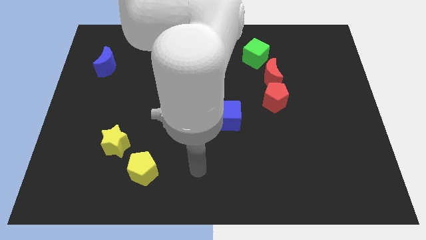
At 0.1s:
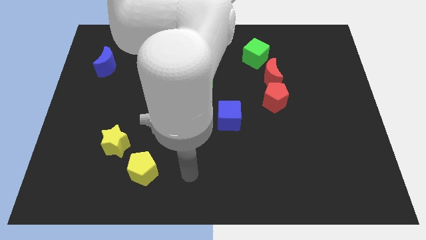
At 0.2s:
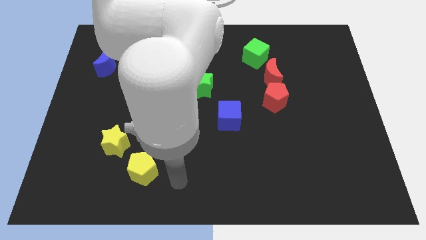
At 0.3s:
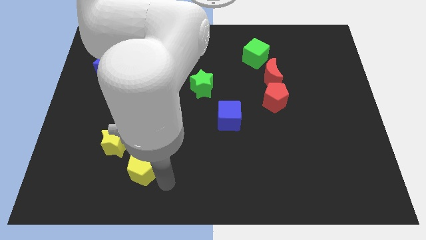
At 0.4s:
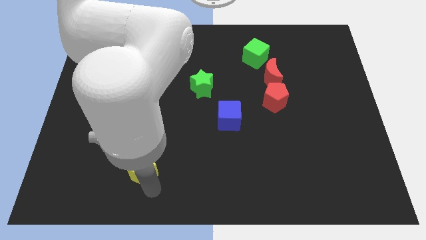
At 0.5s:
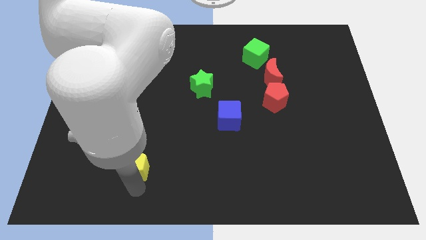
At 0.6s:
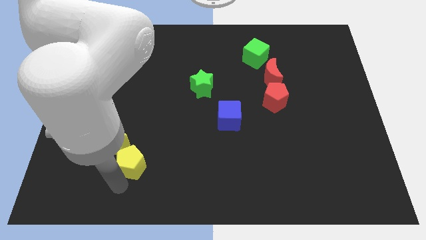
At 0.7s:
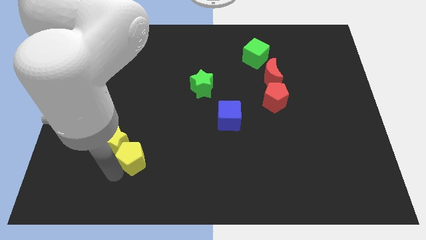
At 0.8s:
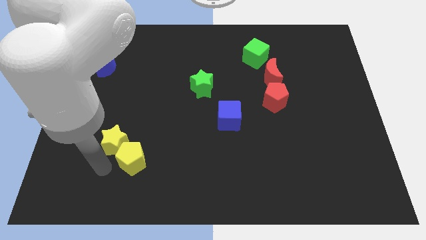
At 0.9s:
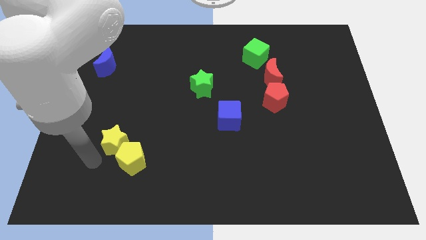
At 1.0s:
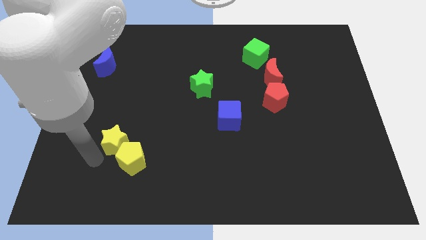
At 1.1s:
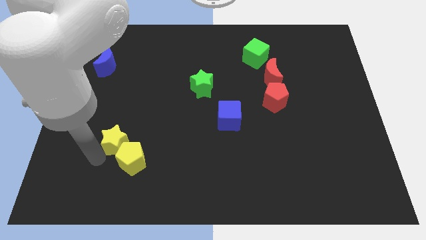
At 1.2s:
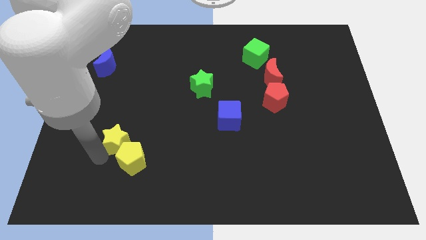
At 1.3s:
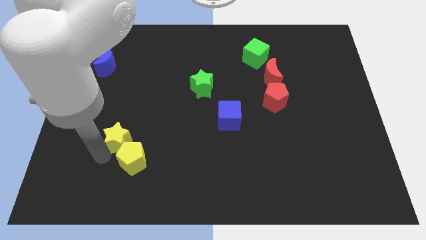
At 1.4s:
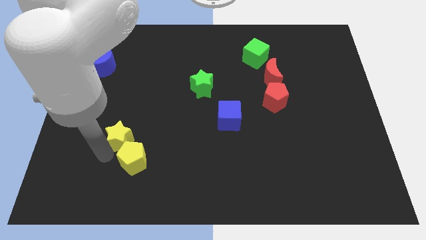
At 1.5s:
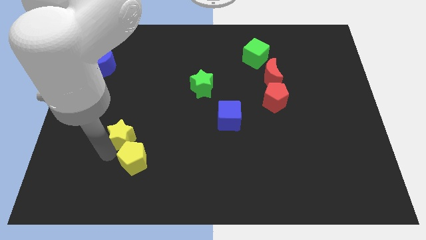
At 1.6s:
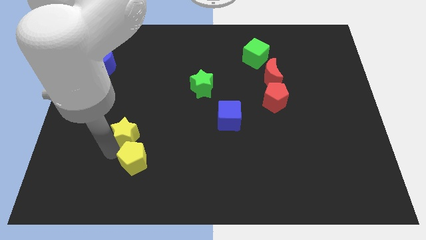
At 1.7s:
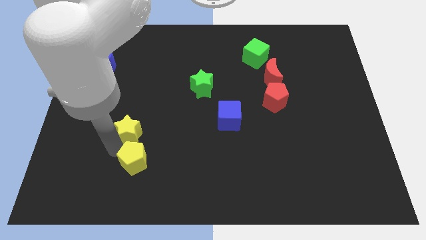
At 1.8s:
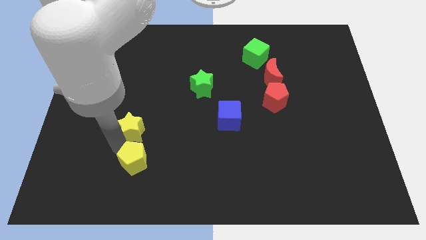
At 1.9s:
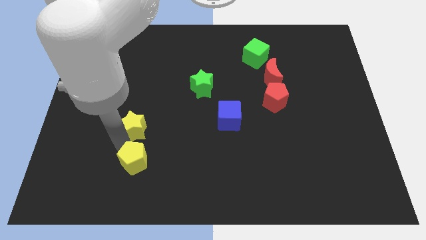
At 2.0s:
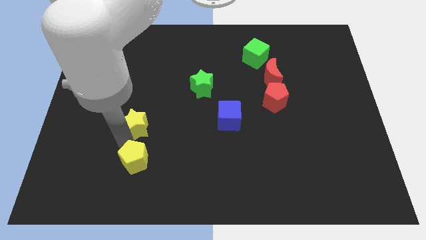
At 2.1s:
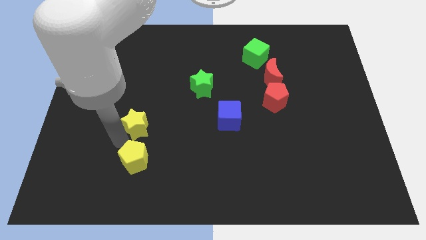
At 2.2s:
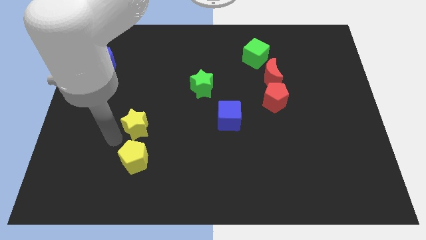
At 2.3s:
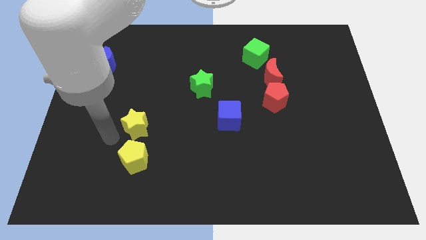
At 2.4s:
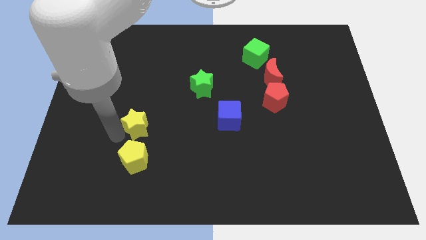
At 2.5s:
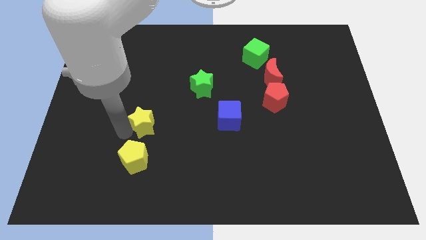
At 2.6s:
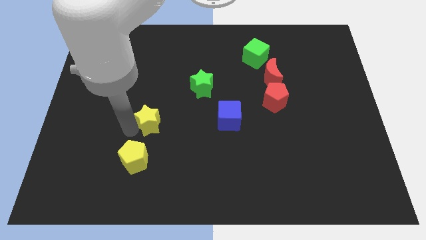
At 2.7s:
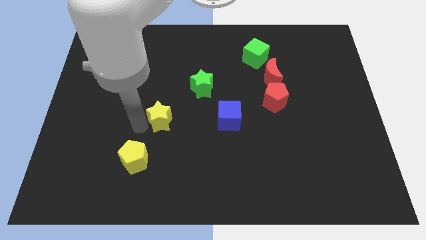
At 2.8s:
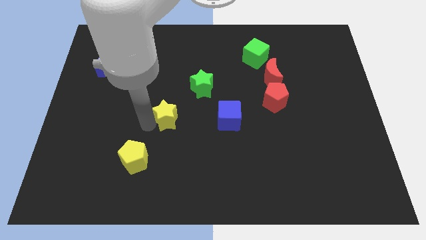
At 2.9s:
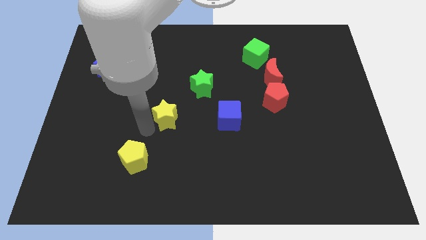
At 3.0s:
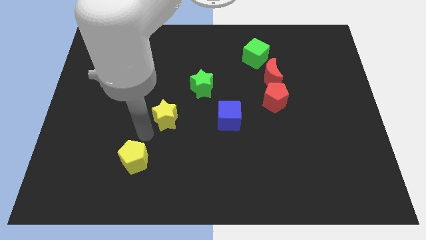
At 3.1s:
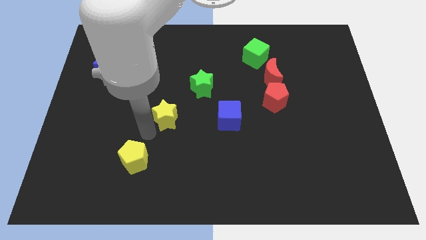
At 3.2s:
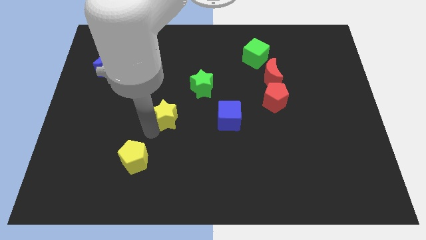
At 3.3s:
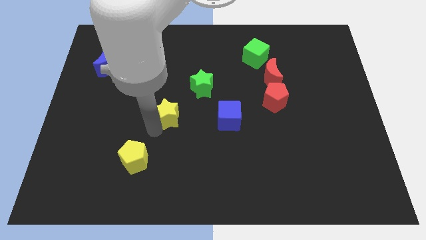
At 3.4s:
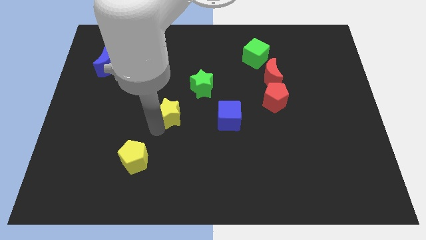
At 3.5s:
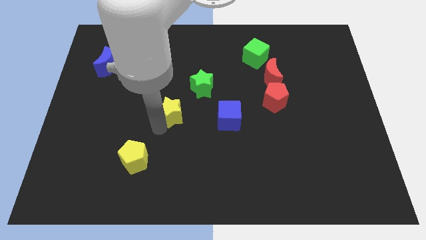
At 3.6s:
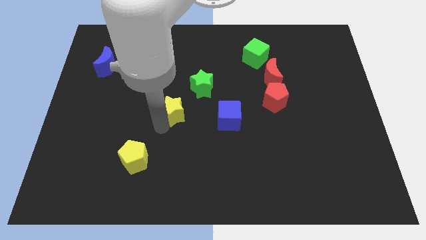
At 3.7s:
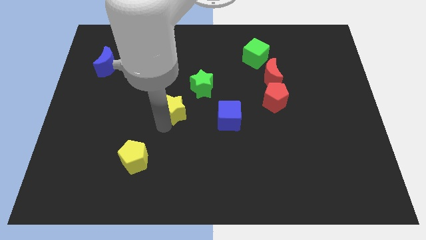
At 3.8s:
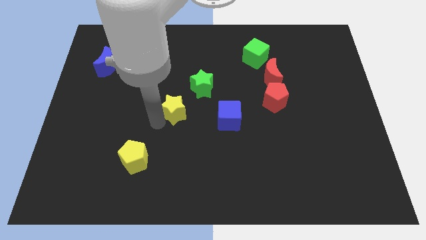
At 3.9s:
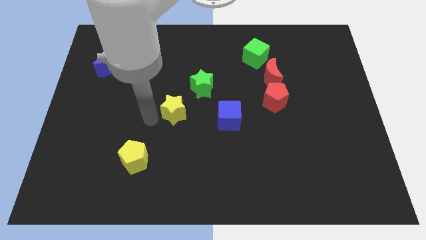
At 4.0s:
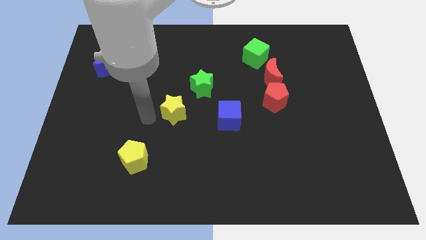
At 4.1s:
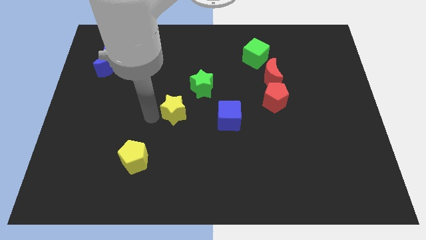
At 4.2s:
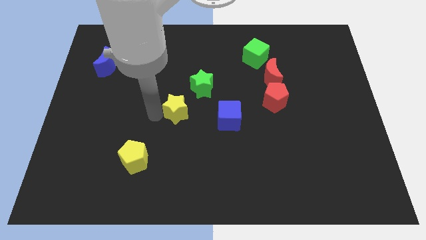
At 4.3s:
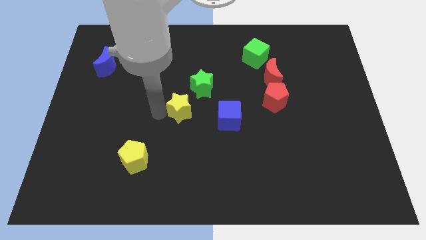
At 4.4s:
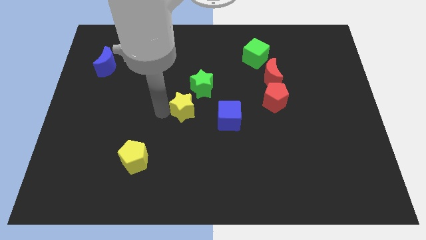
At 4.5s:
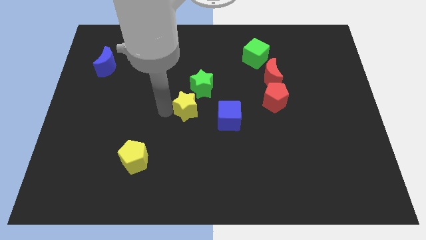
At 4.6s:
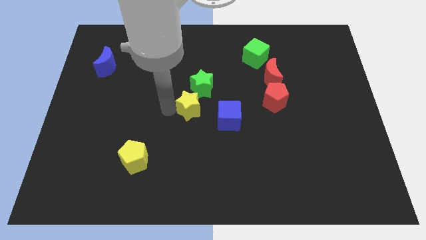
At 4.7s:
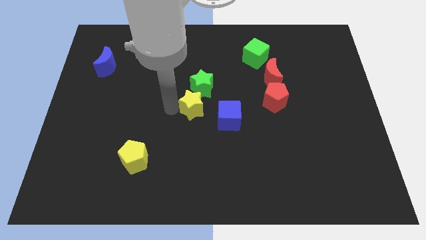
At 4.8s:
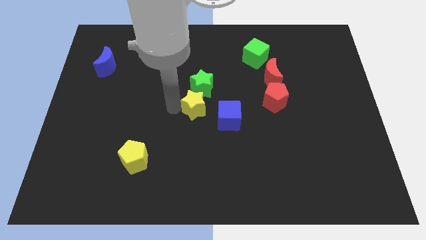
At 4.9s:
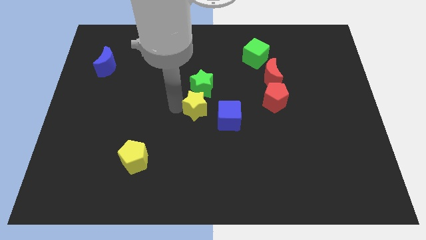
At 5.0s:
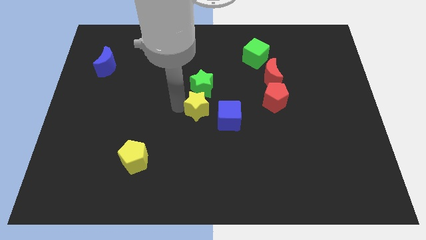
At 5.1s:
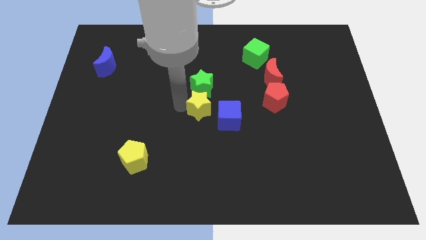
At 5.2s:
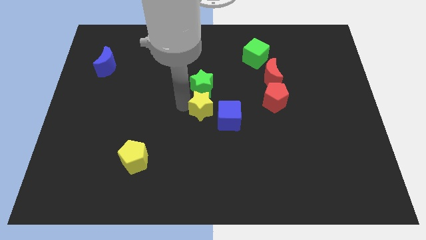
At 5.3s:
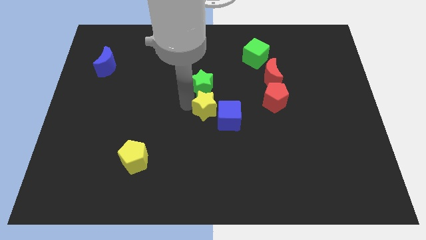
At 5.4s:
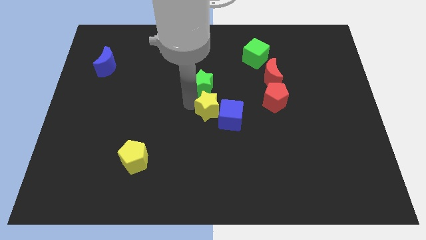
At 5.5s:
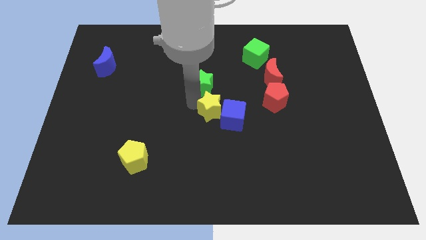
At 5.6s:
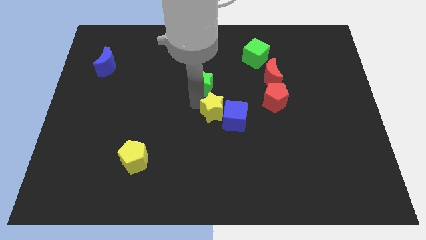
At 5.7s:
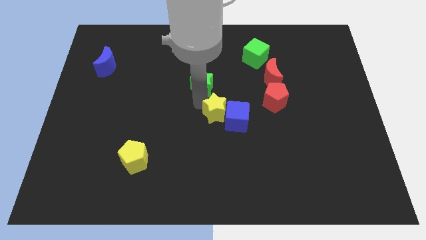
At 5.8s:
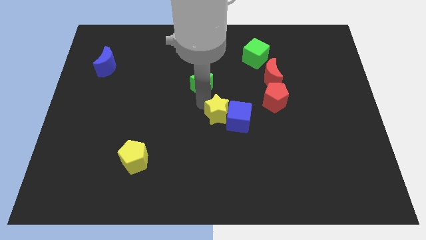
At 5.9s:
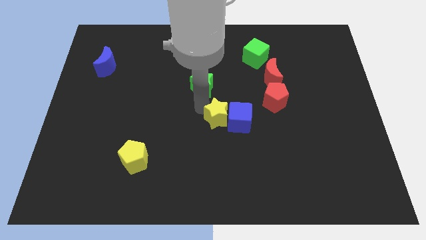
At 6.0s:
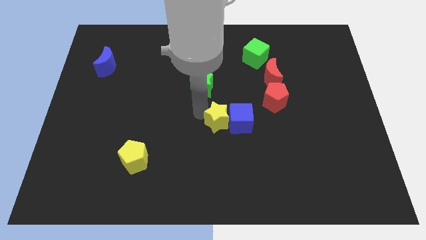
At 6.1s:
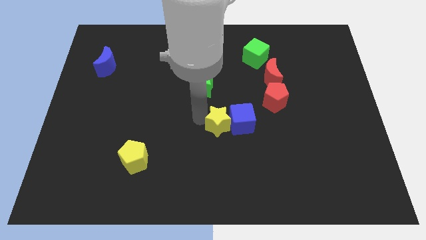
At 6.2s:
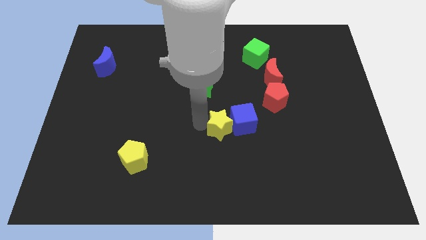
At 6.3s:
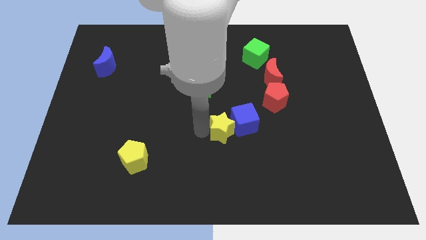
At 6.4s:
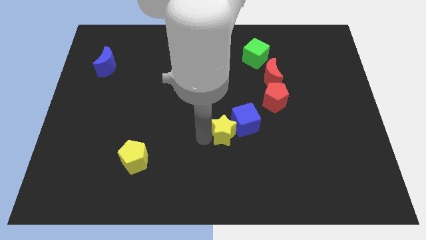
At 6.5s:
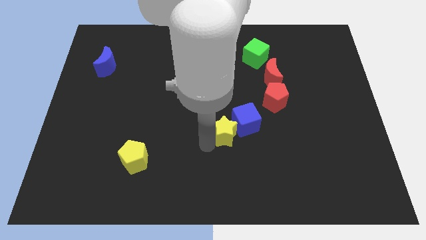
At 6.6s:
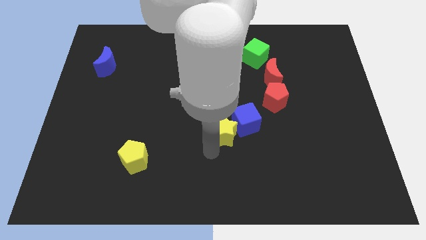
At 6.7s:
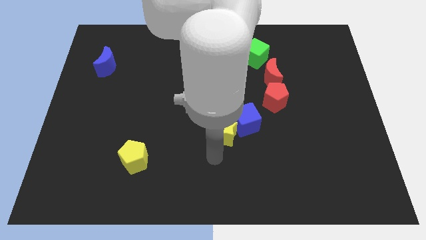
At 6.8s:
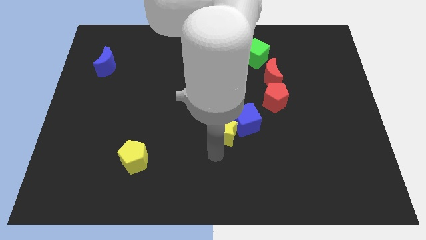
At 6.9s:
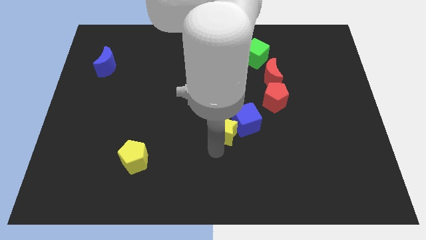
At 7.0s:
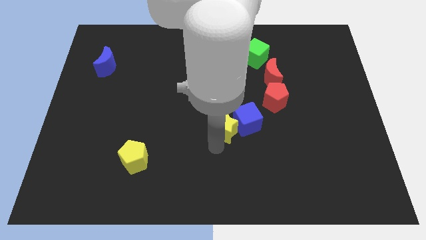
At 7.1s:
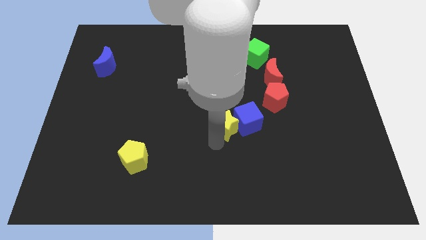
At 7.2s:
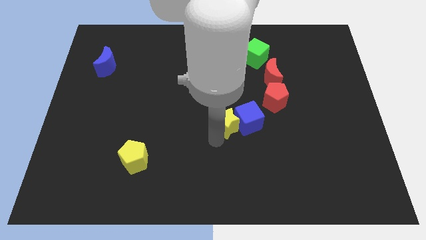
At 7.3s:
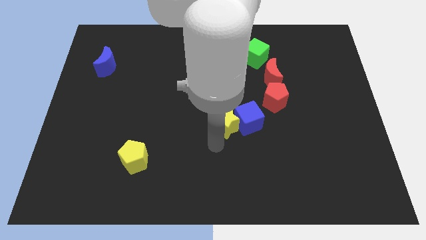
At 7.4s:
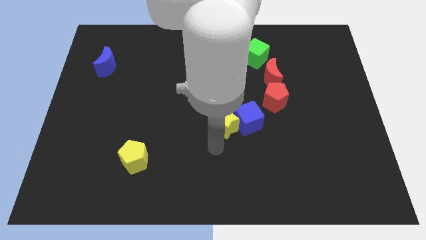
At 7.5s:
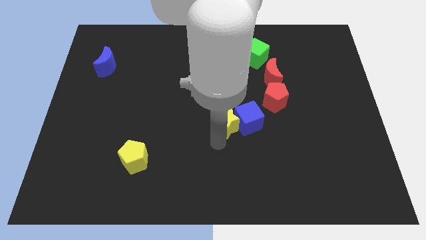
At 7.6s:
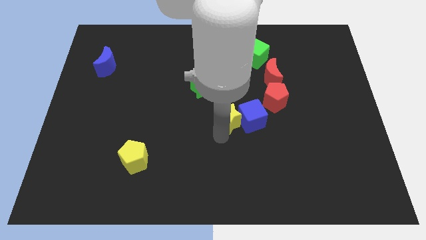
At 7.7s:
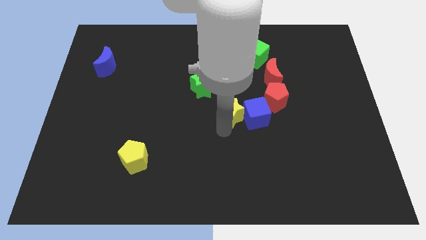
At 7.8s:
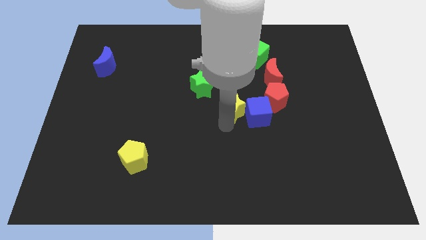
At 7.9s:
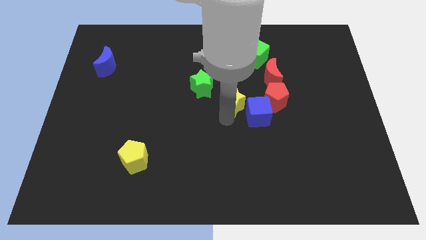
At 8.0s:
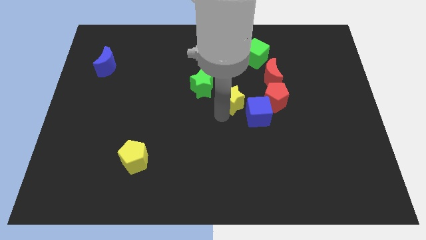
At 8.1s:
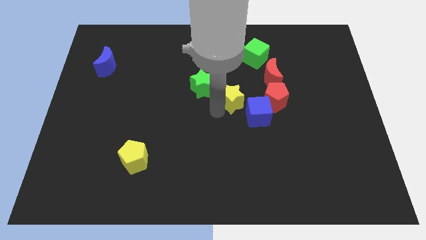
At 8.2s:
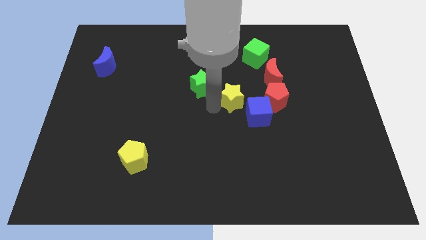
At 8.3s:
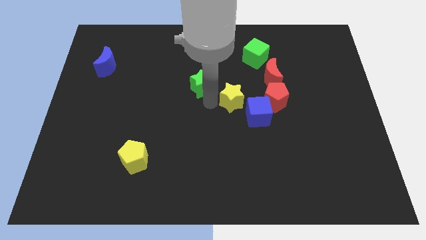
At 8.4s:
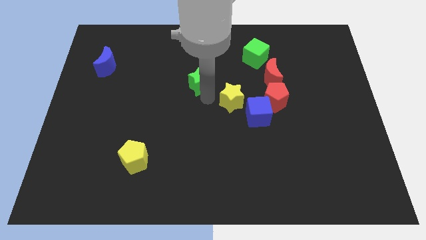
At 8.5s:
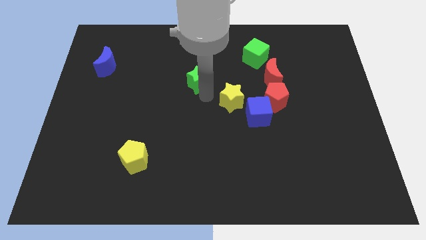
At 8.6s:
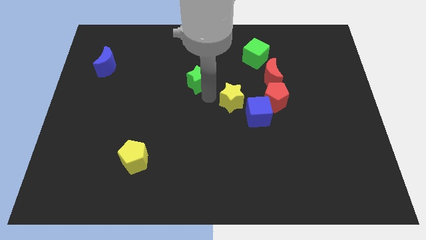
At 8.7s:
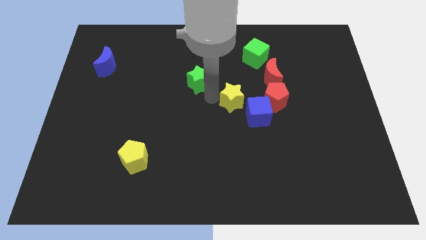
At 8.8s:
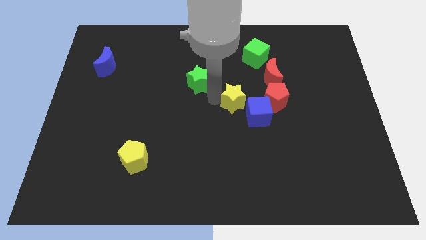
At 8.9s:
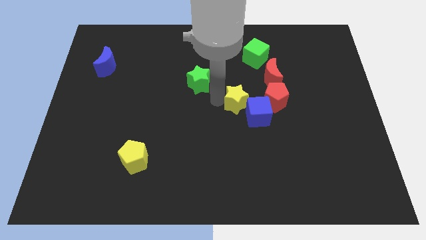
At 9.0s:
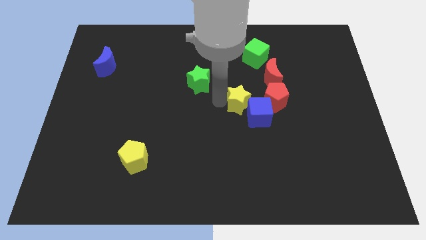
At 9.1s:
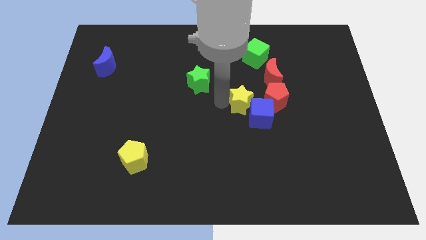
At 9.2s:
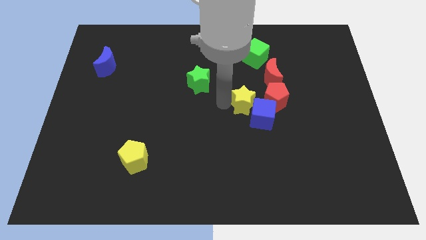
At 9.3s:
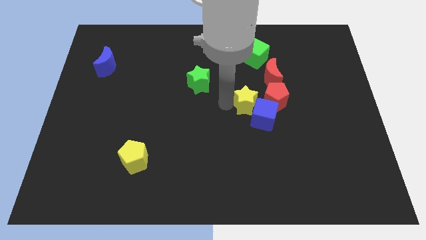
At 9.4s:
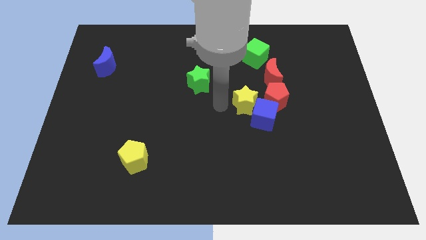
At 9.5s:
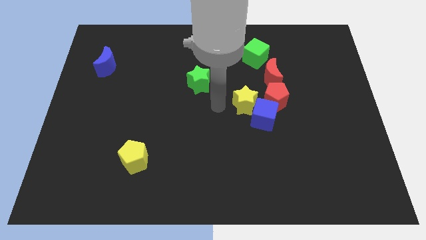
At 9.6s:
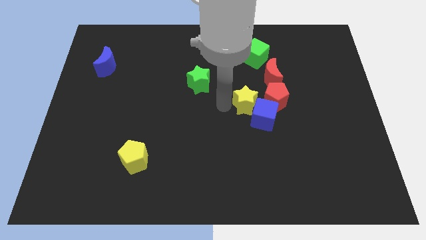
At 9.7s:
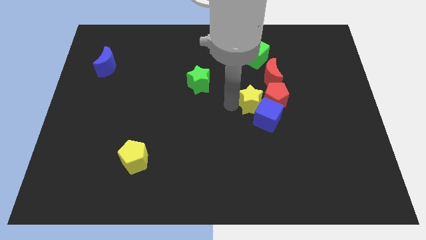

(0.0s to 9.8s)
put the yellow star to the red pentagon
